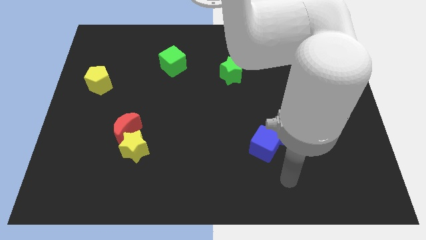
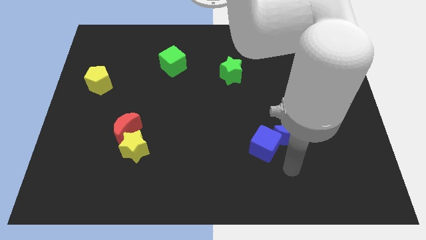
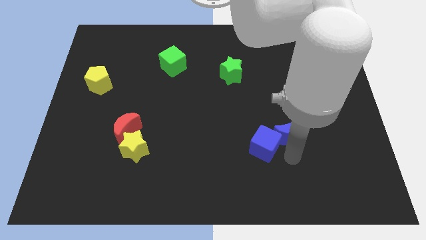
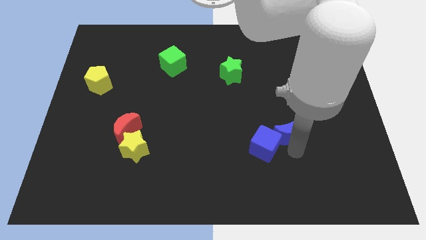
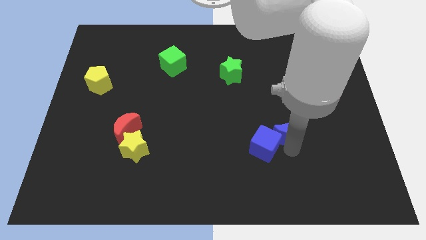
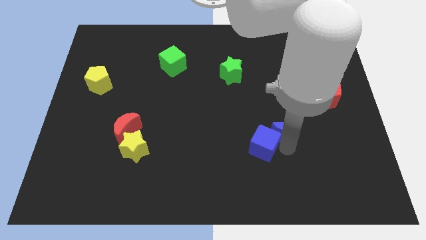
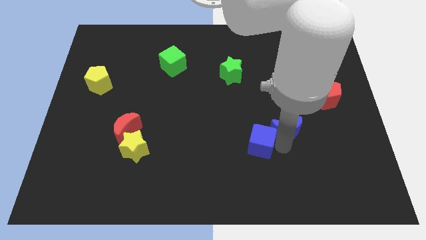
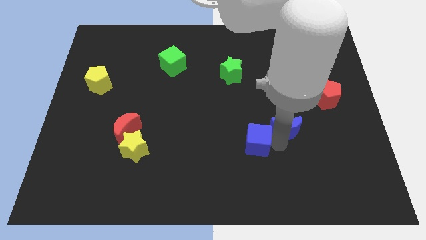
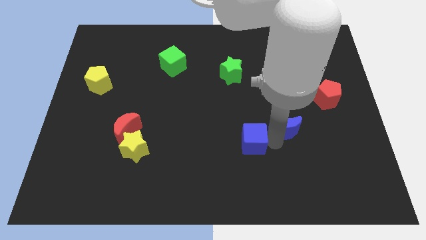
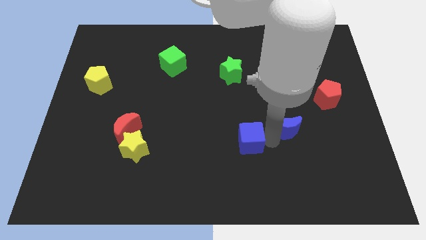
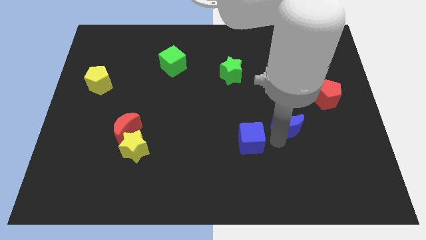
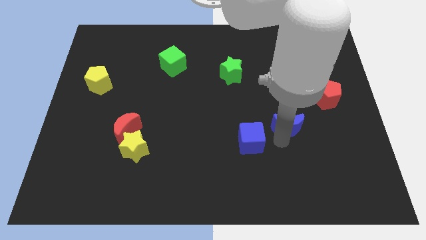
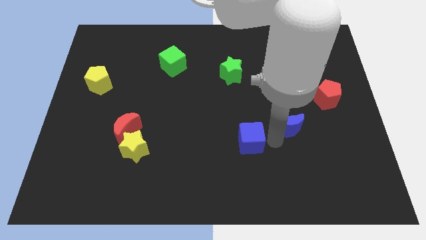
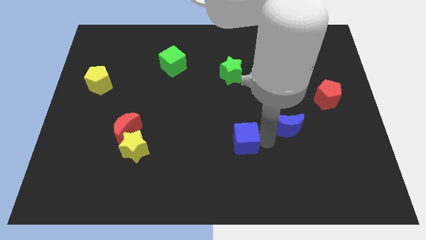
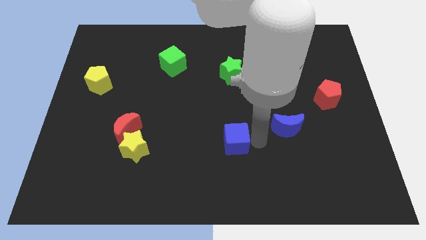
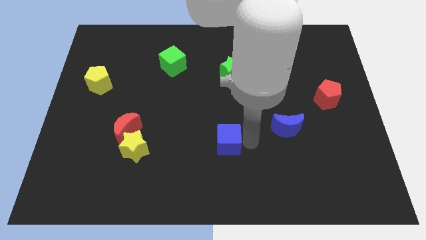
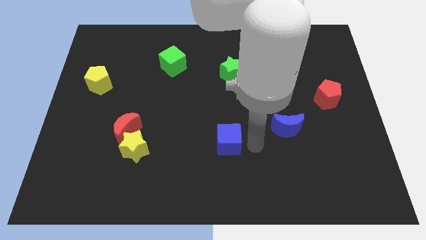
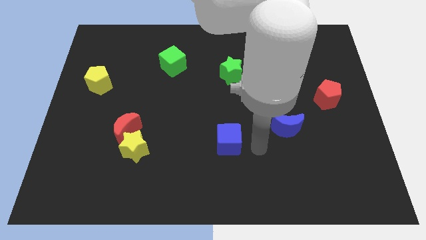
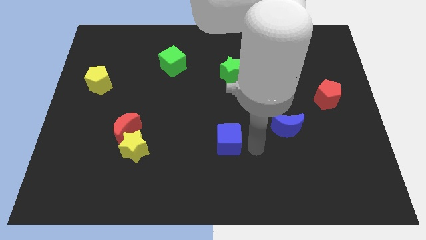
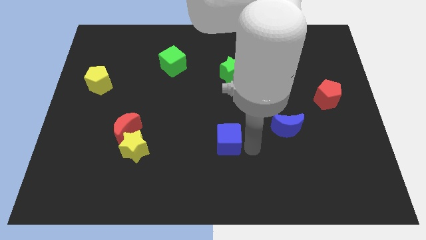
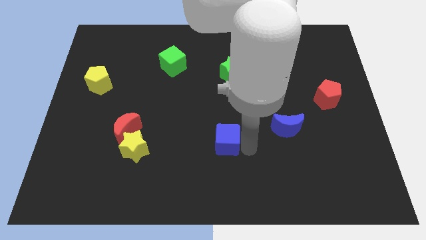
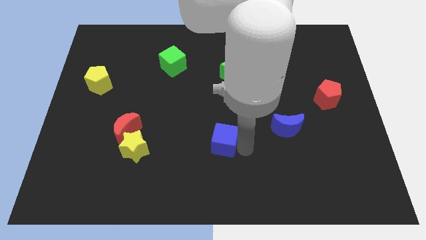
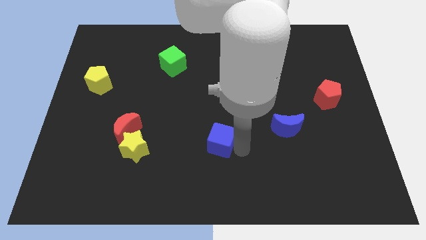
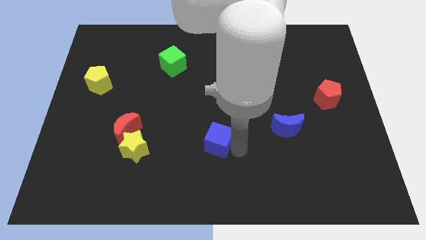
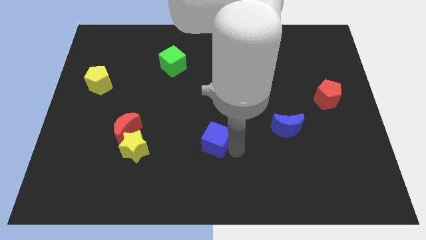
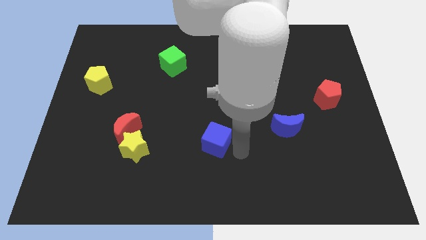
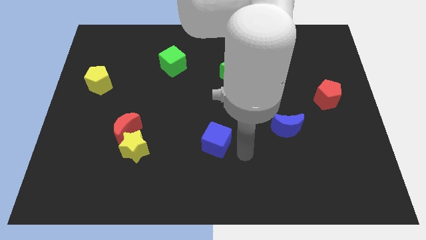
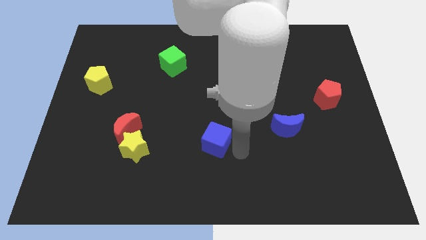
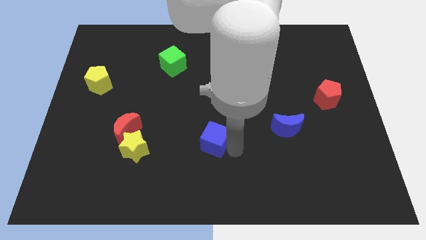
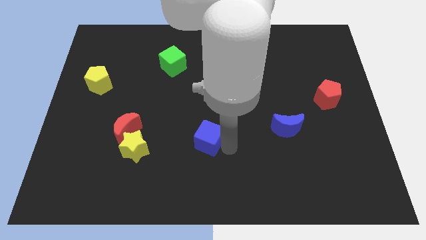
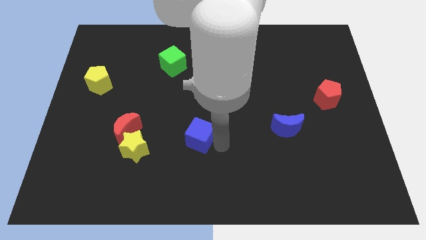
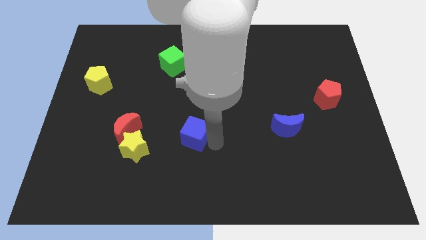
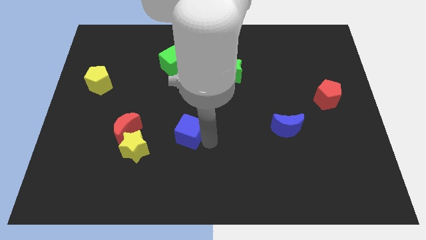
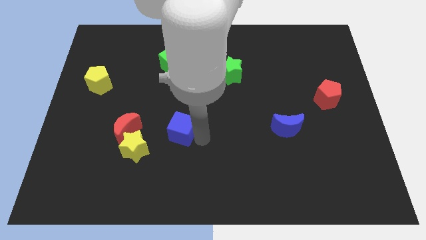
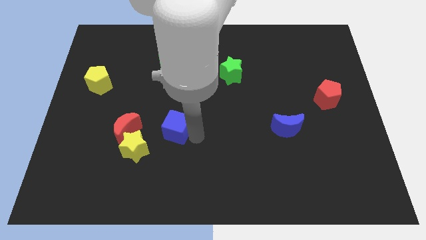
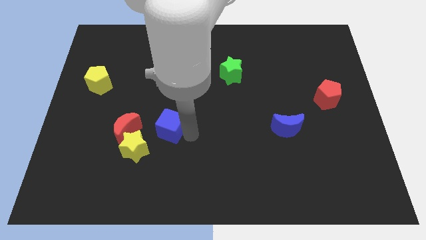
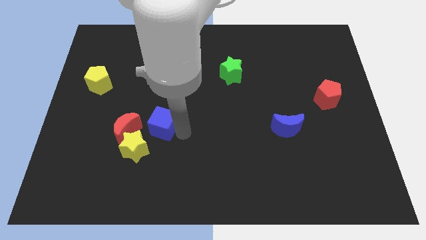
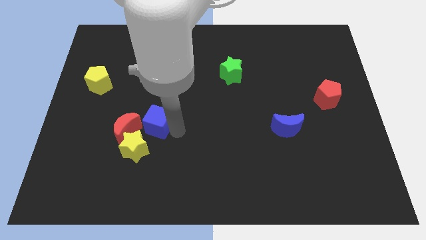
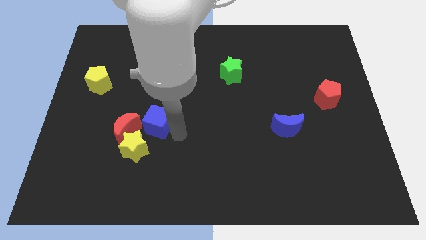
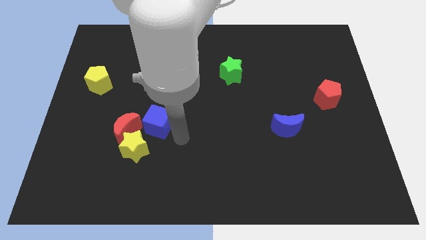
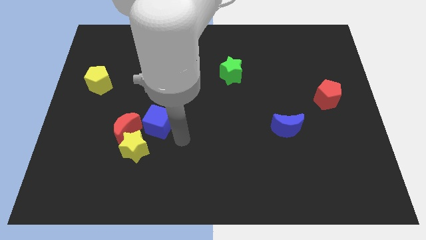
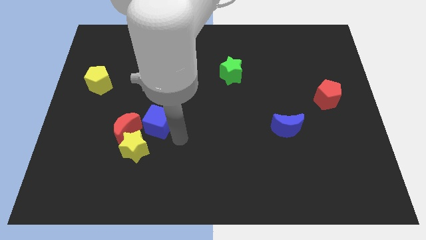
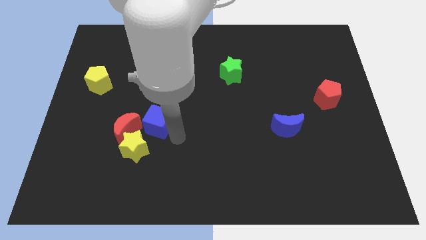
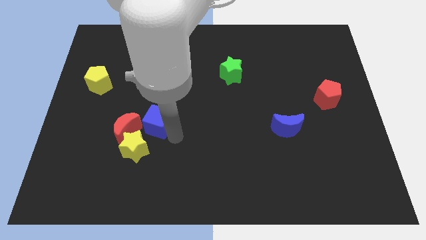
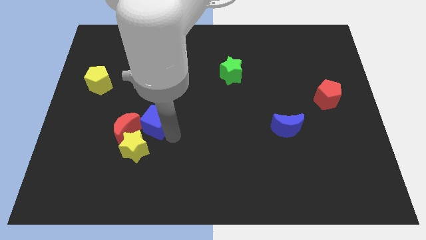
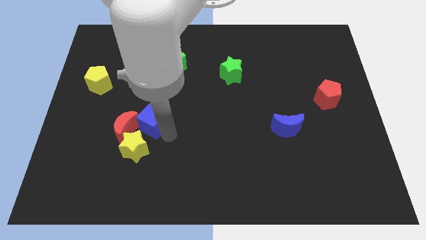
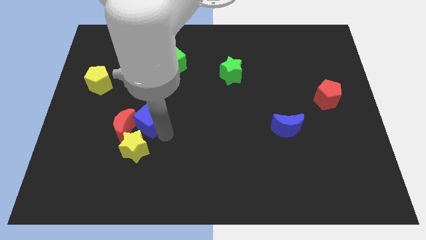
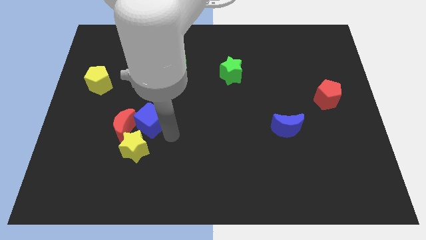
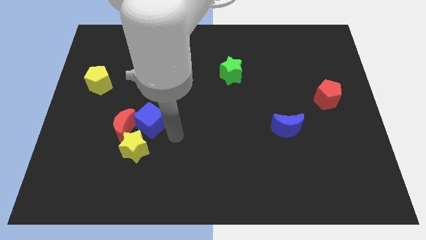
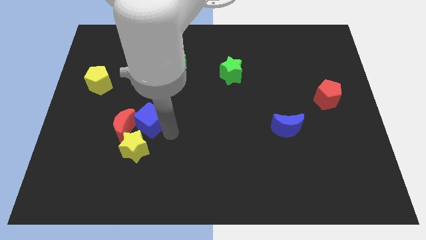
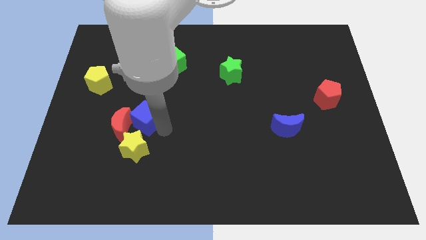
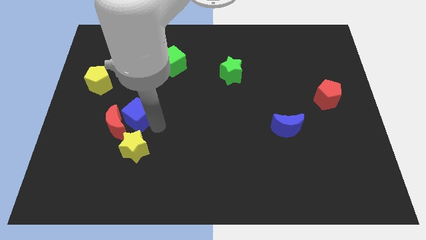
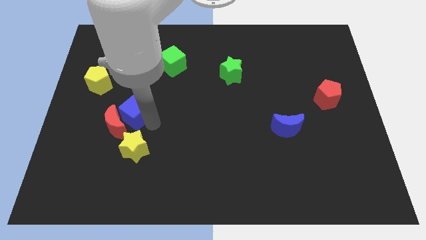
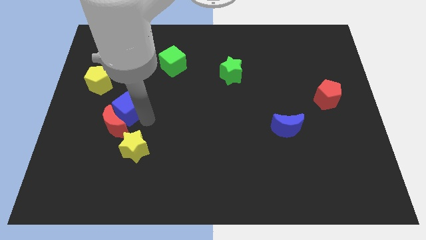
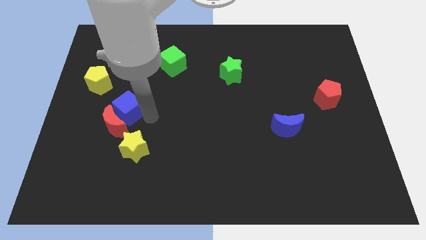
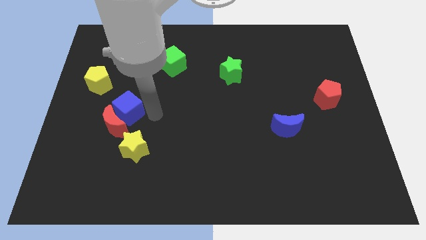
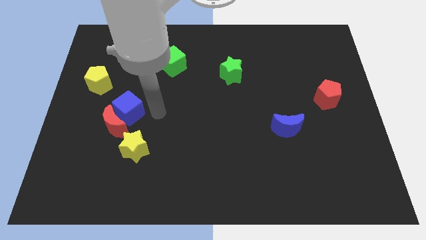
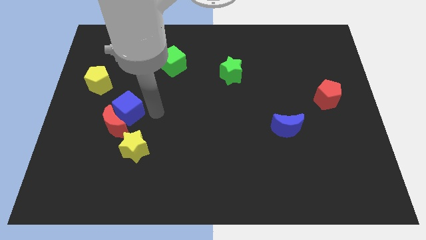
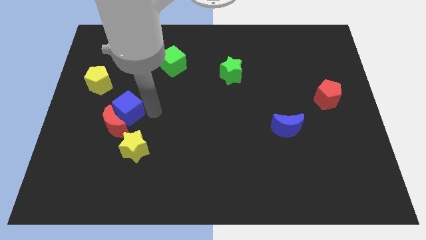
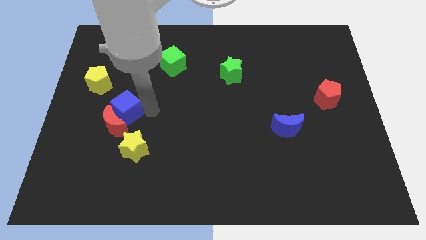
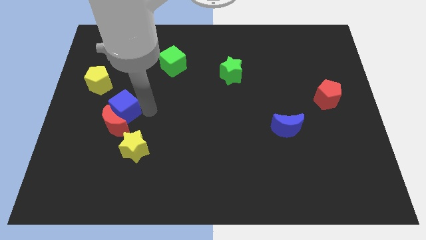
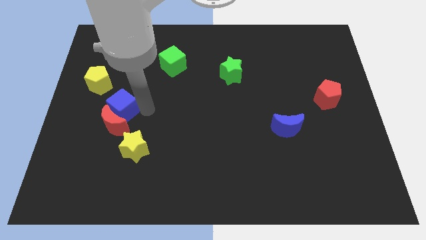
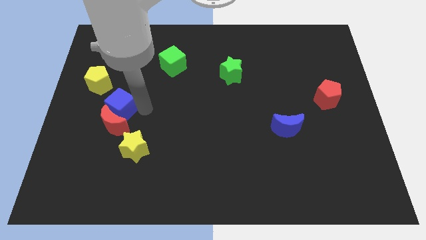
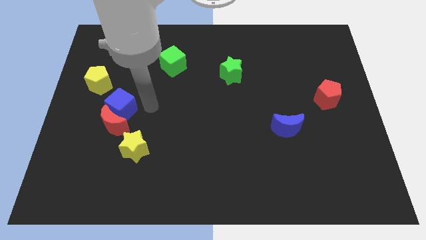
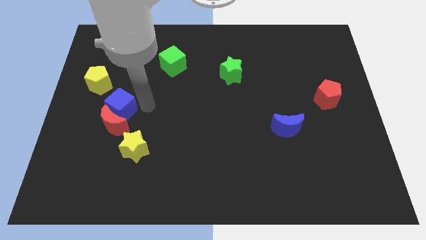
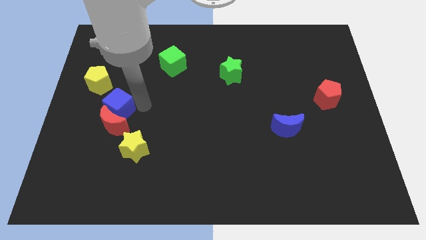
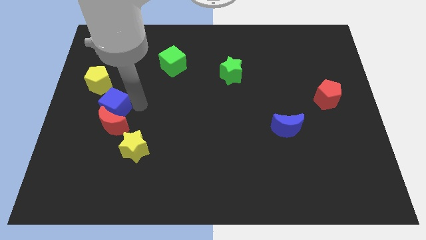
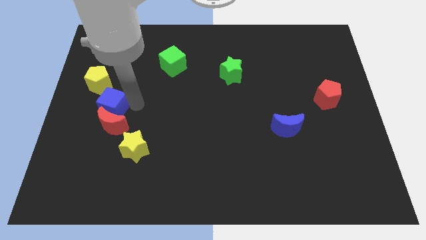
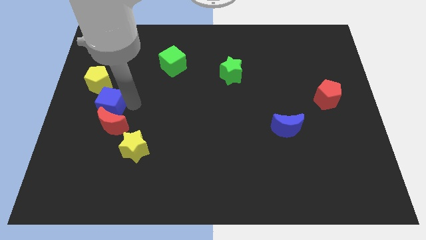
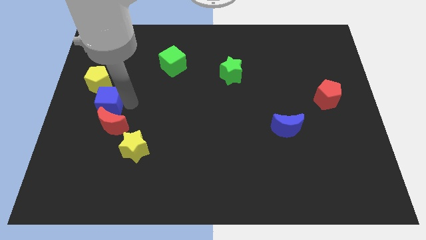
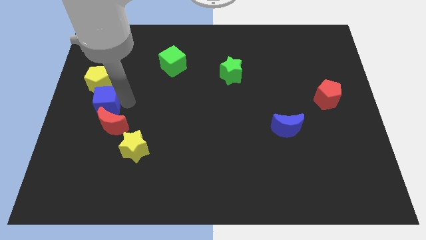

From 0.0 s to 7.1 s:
move the blue cube to the left side of the board

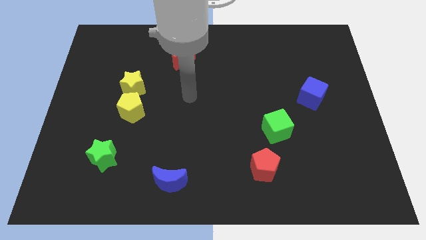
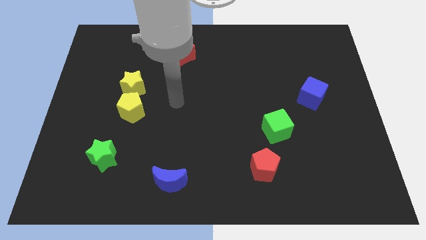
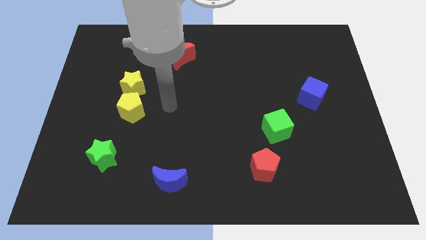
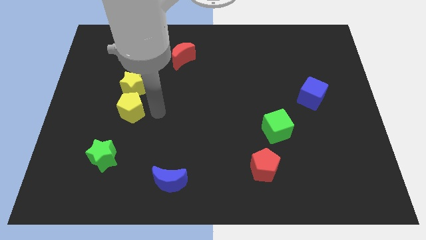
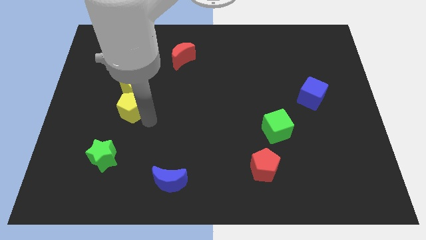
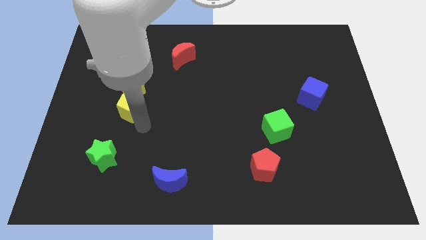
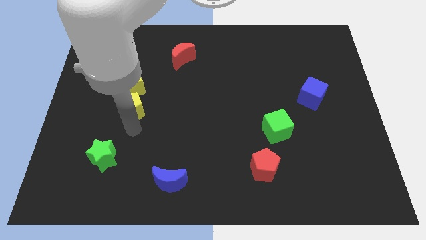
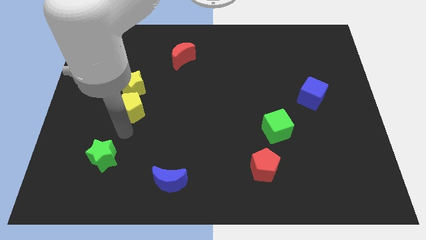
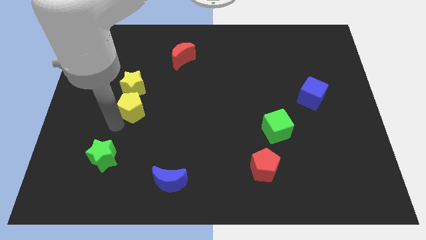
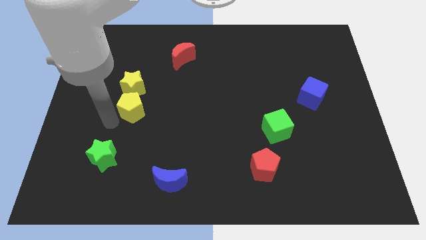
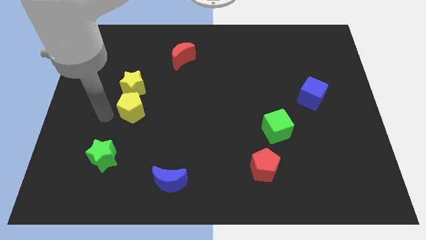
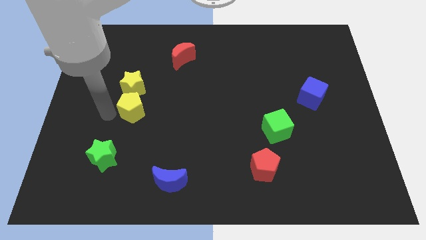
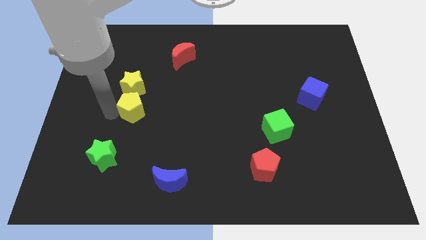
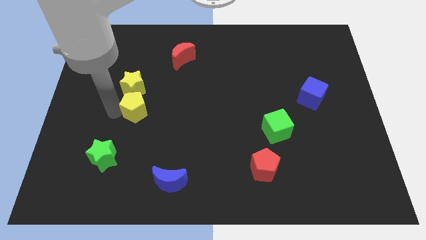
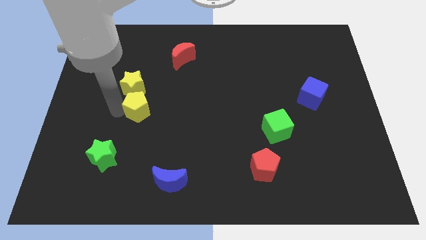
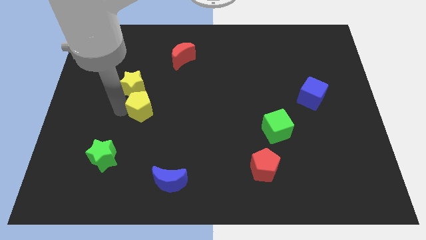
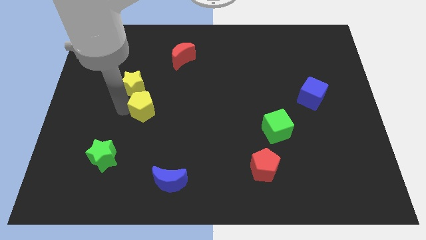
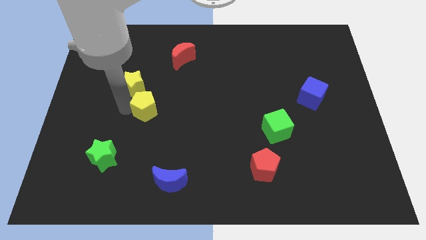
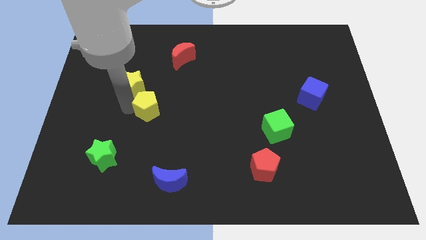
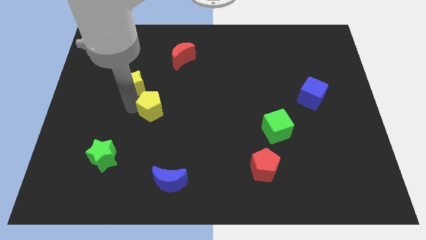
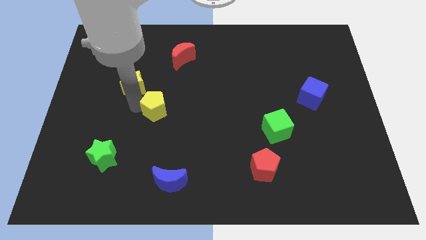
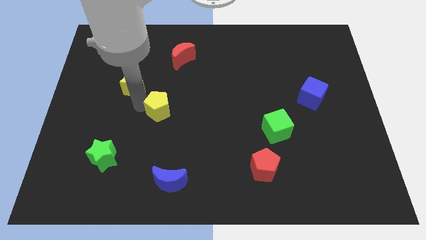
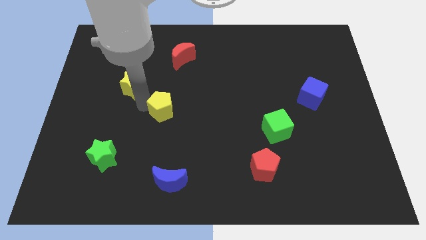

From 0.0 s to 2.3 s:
move the yellow pentagon to the middle of the board
